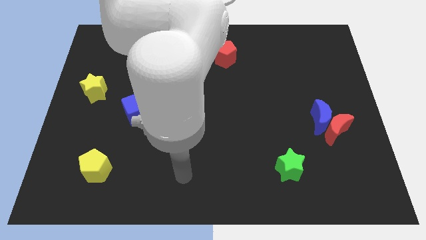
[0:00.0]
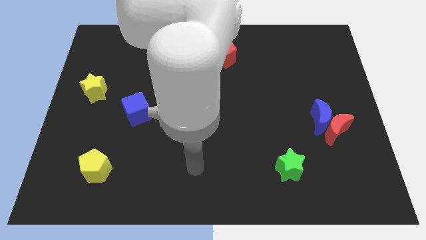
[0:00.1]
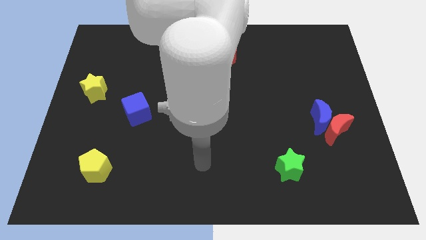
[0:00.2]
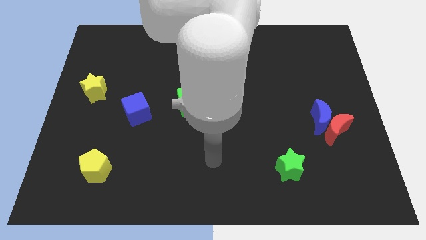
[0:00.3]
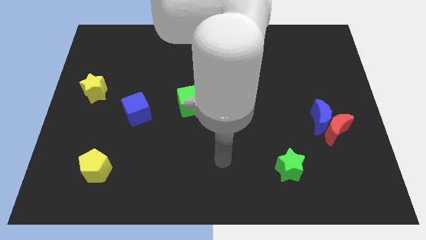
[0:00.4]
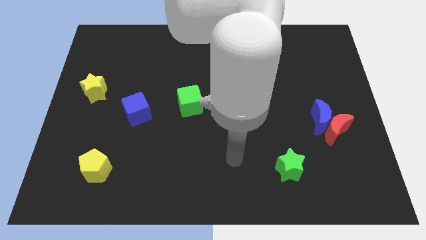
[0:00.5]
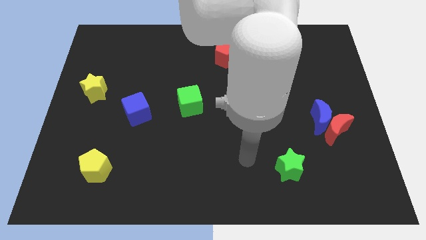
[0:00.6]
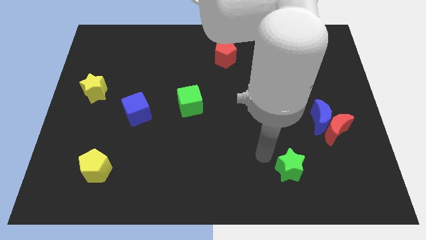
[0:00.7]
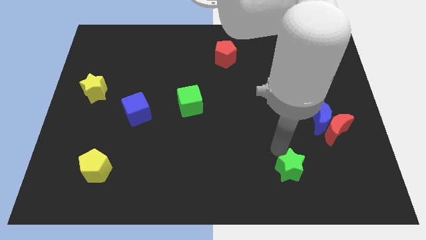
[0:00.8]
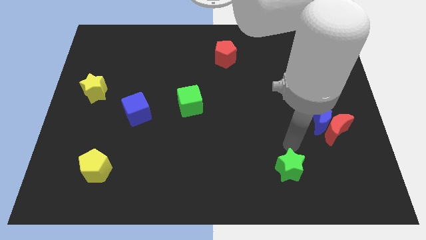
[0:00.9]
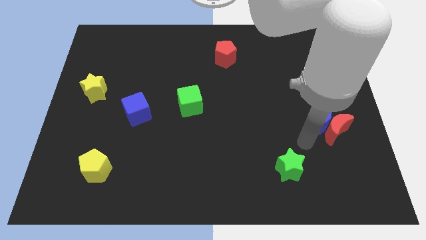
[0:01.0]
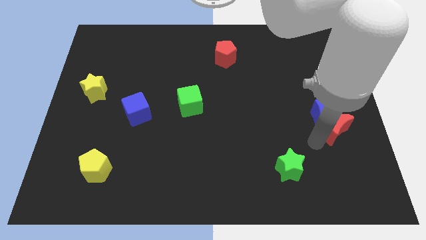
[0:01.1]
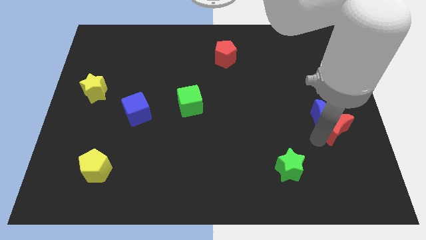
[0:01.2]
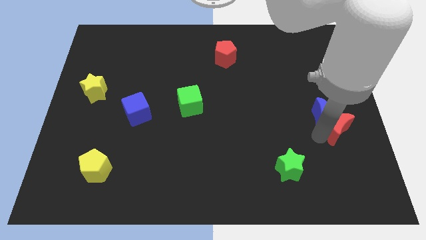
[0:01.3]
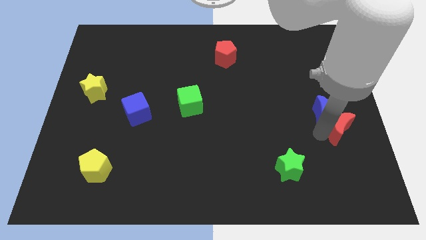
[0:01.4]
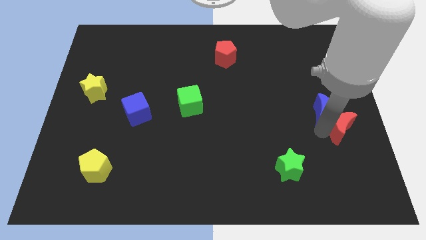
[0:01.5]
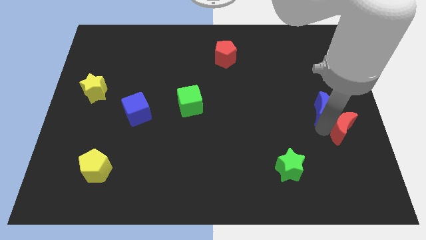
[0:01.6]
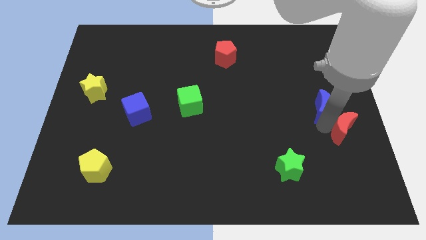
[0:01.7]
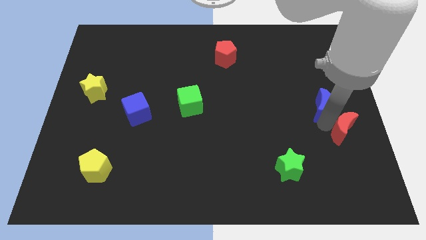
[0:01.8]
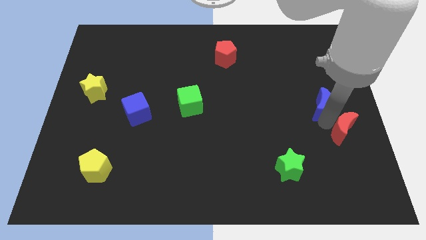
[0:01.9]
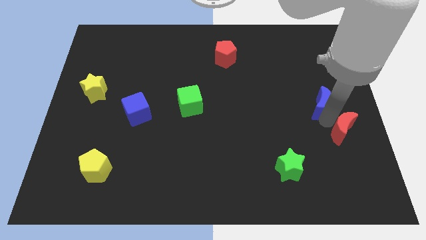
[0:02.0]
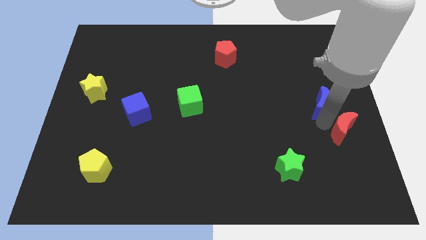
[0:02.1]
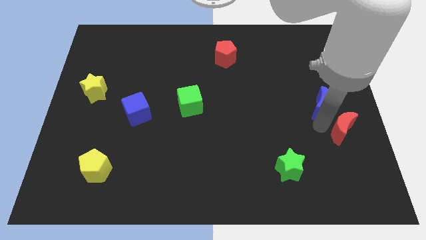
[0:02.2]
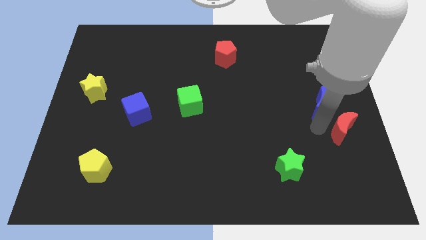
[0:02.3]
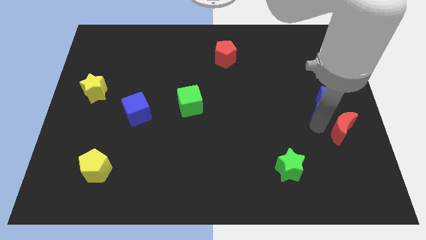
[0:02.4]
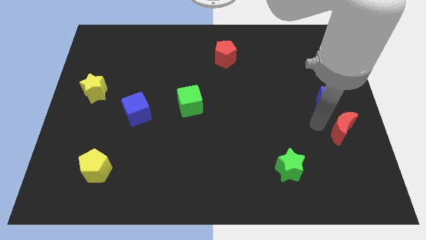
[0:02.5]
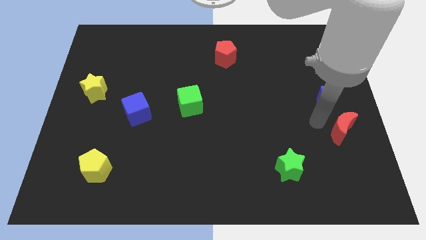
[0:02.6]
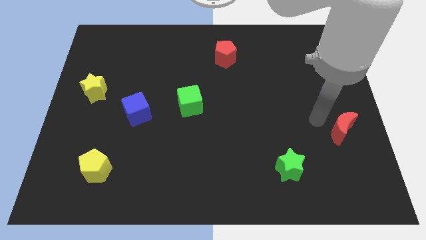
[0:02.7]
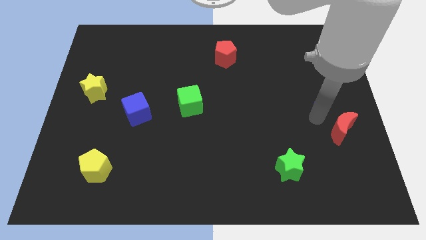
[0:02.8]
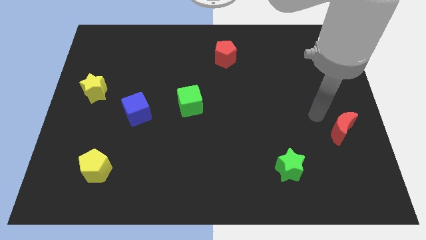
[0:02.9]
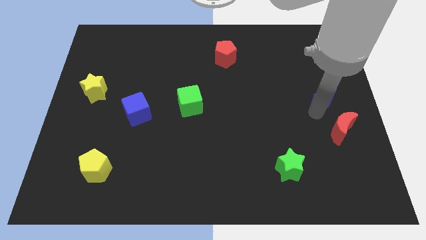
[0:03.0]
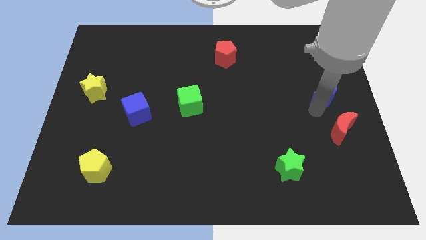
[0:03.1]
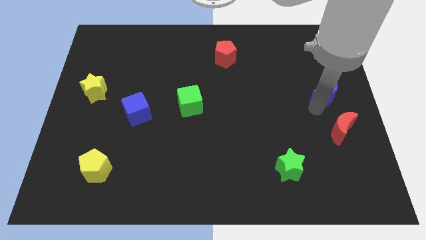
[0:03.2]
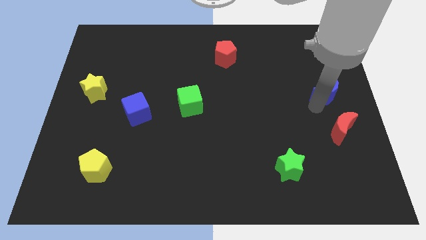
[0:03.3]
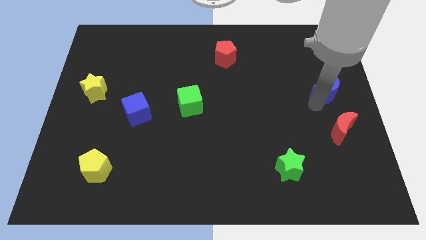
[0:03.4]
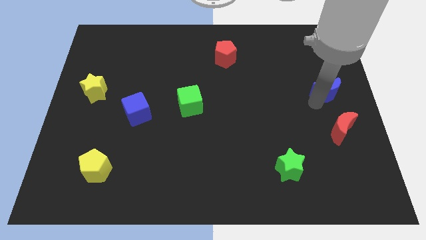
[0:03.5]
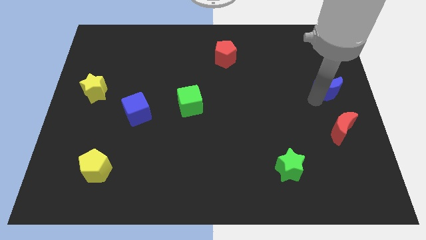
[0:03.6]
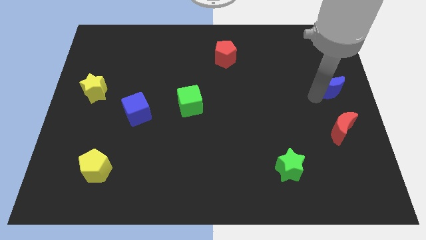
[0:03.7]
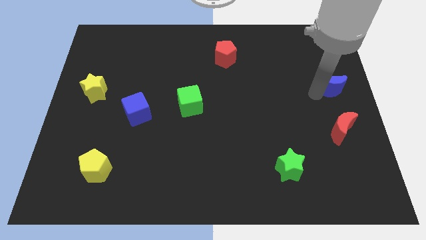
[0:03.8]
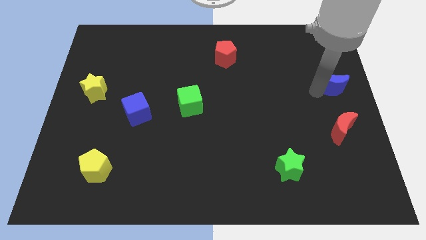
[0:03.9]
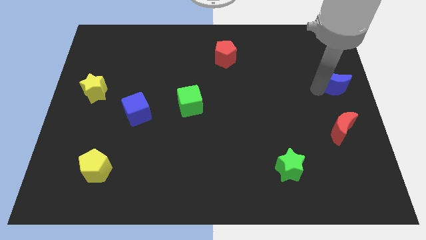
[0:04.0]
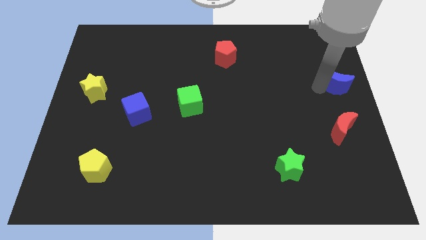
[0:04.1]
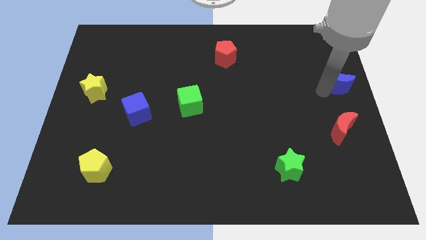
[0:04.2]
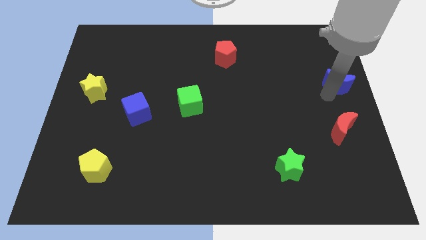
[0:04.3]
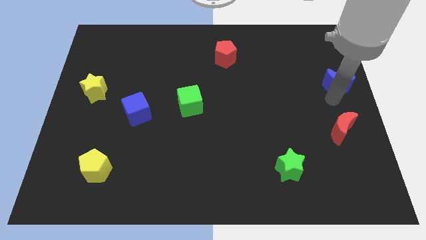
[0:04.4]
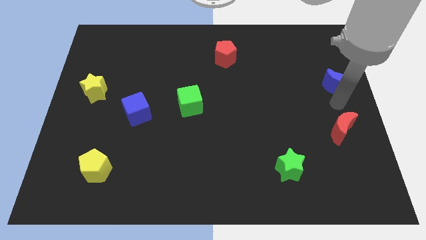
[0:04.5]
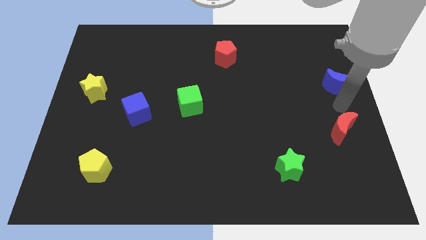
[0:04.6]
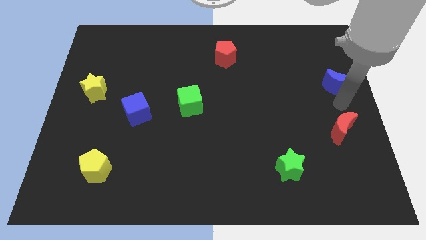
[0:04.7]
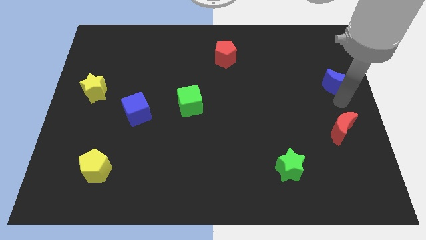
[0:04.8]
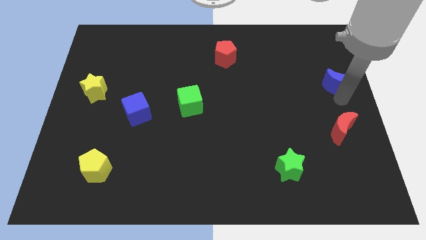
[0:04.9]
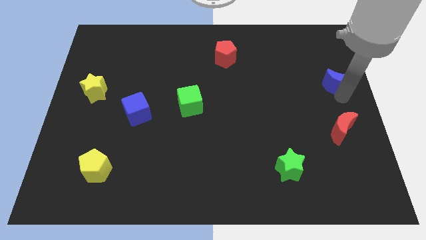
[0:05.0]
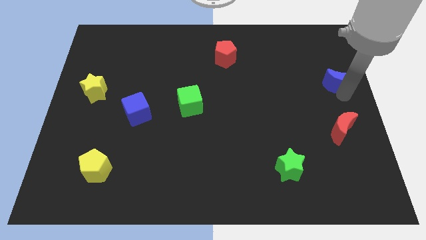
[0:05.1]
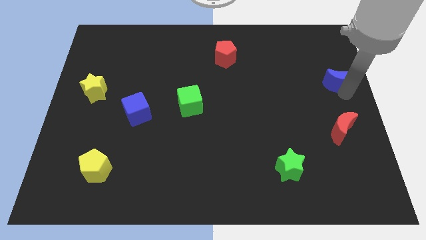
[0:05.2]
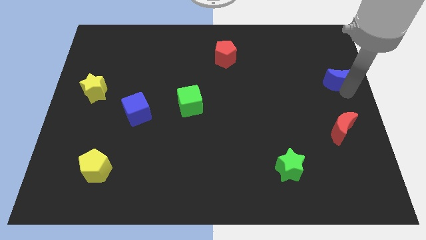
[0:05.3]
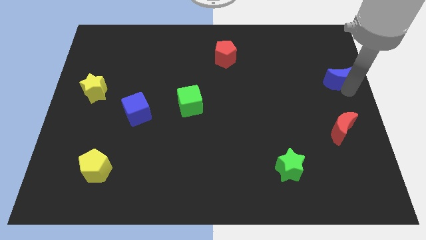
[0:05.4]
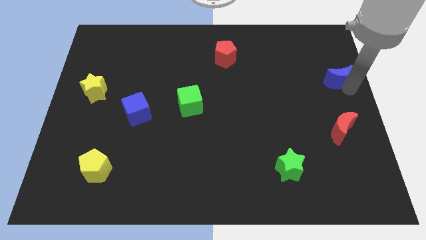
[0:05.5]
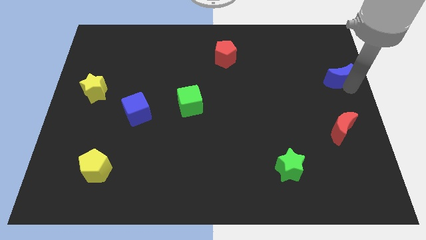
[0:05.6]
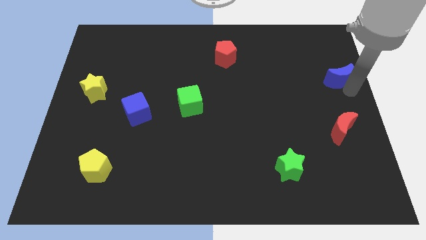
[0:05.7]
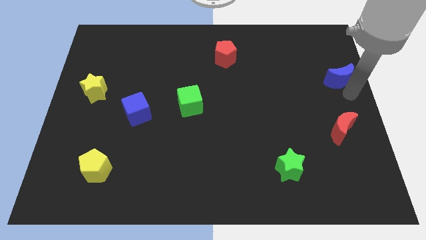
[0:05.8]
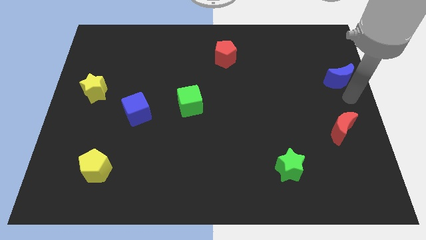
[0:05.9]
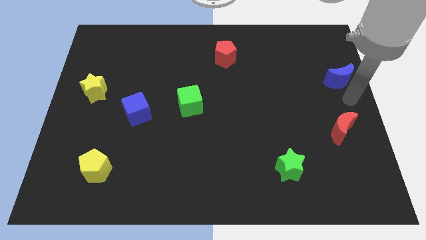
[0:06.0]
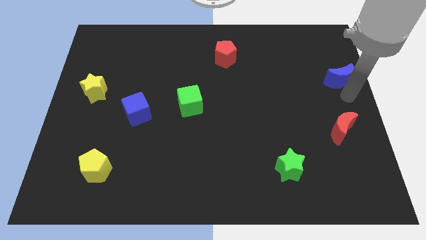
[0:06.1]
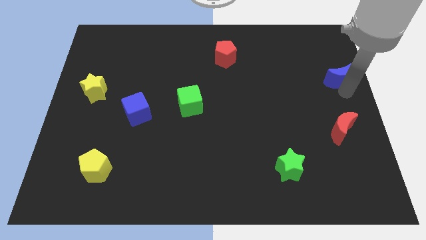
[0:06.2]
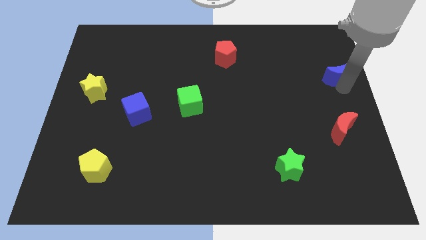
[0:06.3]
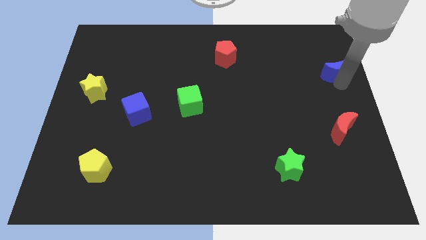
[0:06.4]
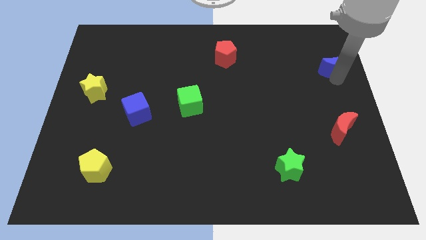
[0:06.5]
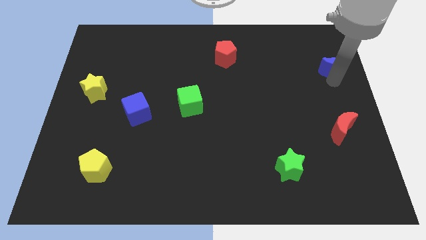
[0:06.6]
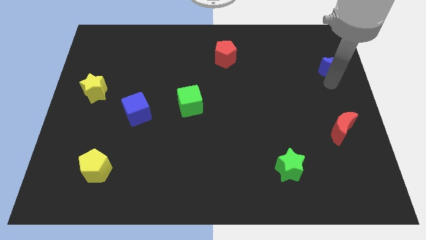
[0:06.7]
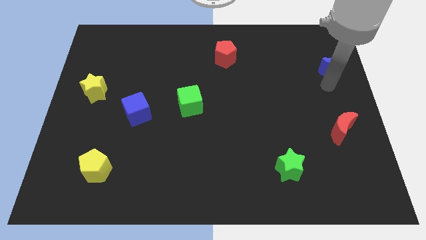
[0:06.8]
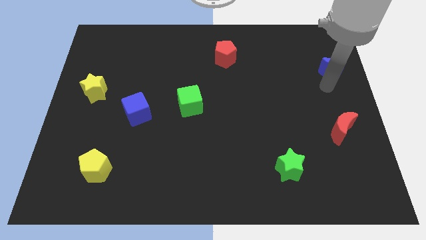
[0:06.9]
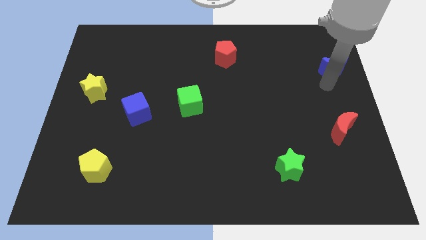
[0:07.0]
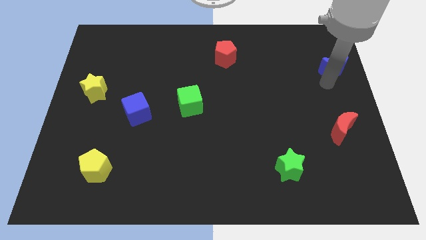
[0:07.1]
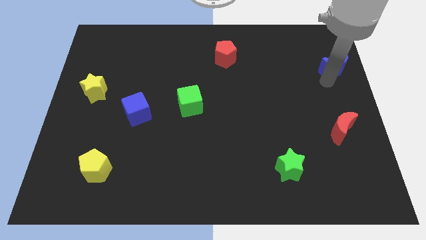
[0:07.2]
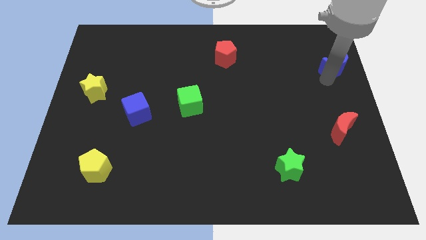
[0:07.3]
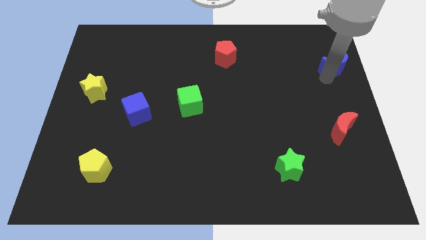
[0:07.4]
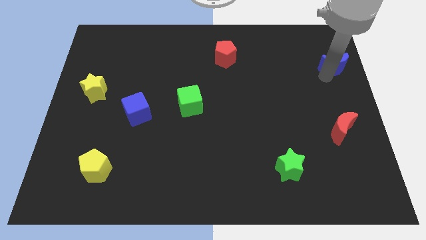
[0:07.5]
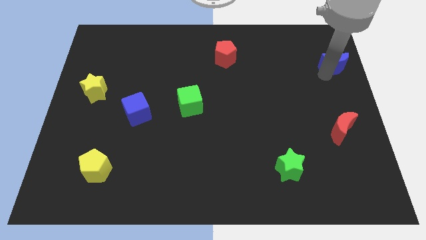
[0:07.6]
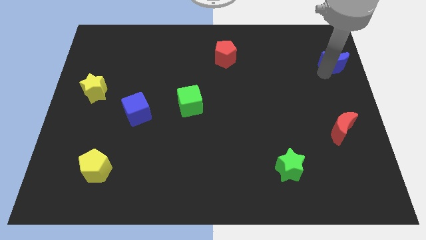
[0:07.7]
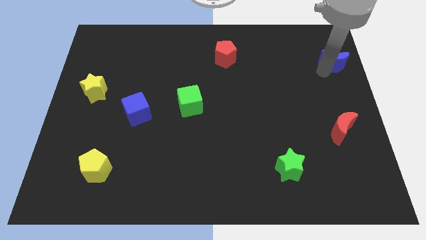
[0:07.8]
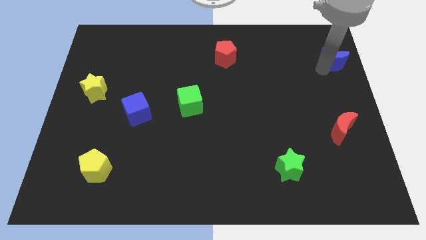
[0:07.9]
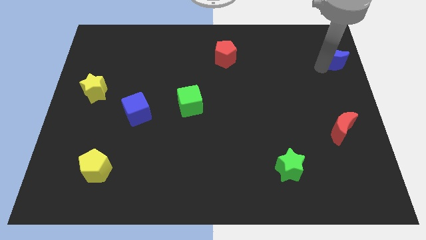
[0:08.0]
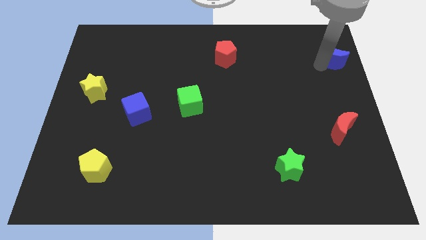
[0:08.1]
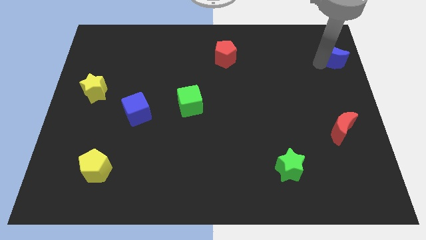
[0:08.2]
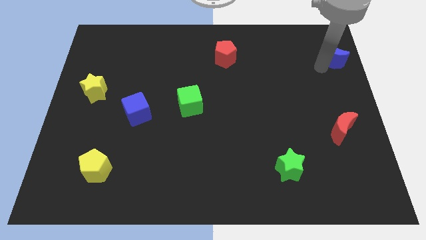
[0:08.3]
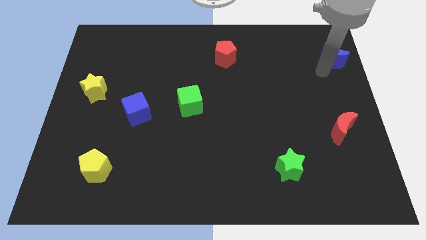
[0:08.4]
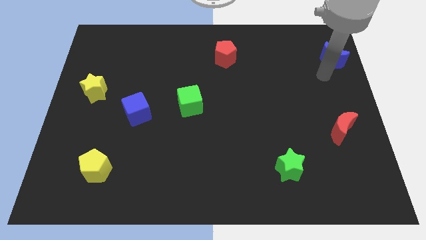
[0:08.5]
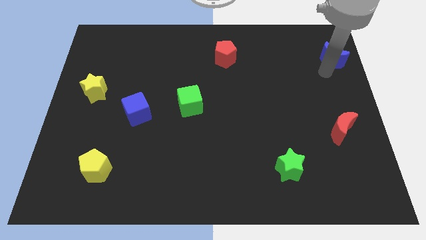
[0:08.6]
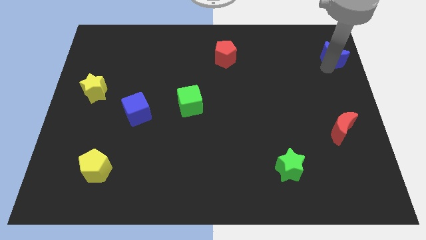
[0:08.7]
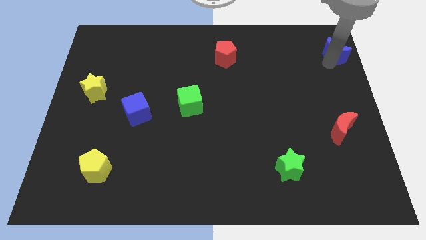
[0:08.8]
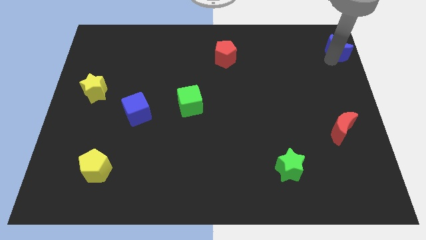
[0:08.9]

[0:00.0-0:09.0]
move the blue moon to the top right of the board
